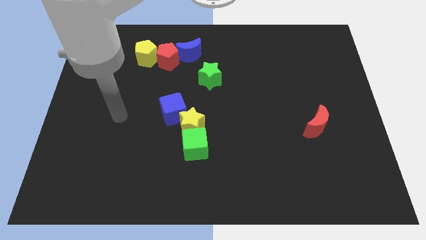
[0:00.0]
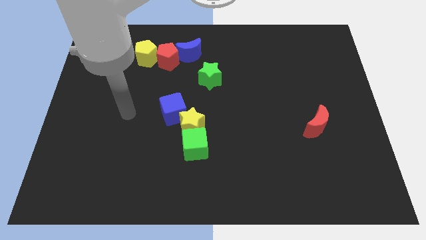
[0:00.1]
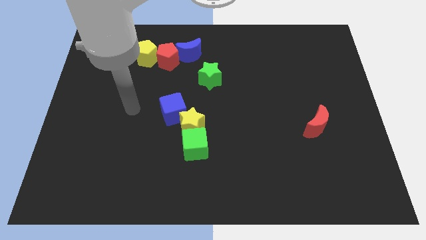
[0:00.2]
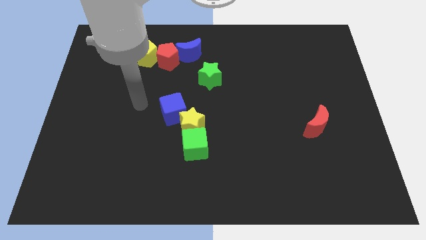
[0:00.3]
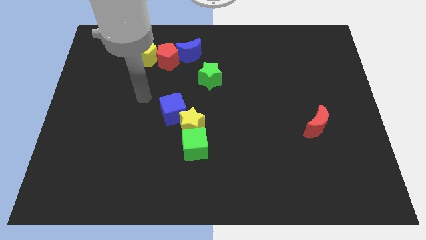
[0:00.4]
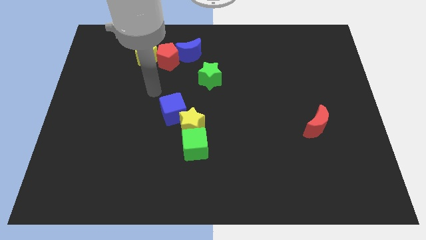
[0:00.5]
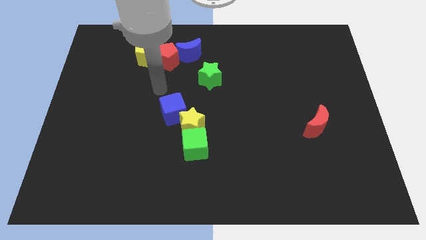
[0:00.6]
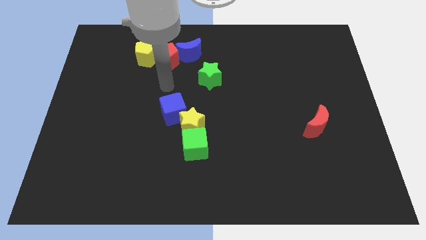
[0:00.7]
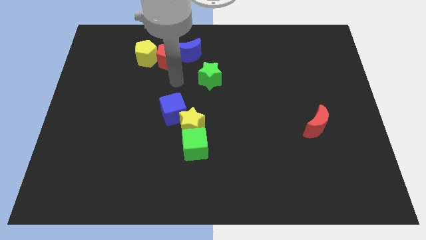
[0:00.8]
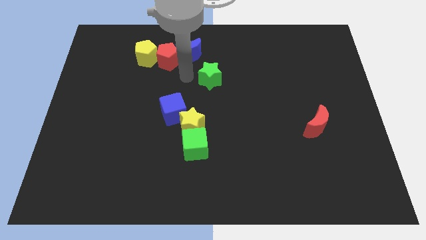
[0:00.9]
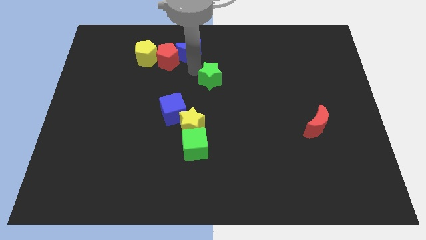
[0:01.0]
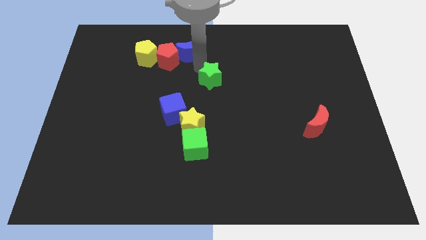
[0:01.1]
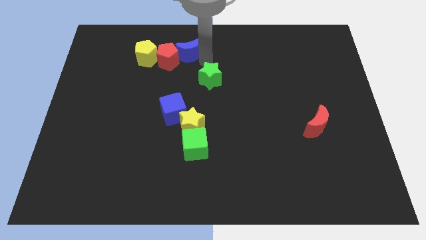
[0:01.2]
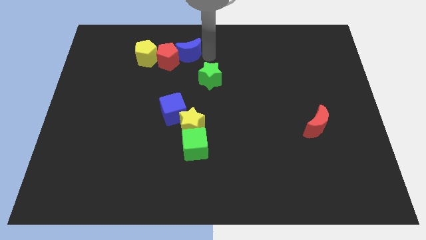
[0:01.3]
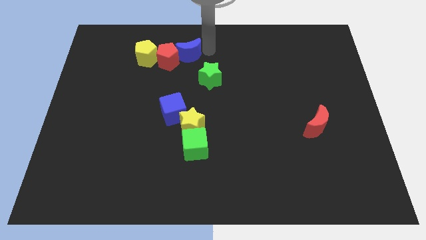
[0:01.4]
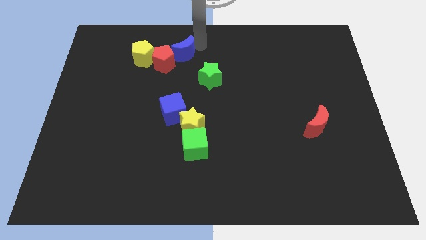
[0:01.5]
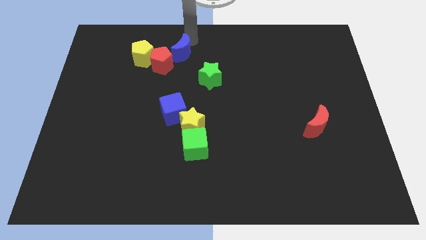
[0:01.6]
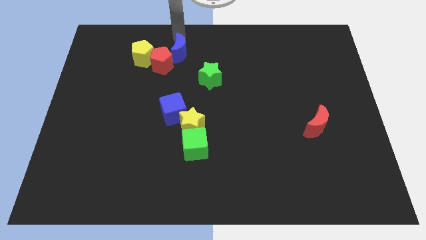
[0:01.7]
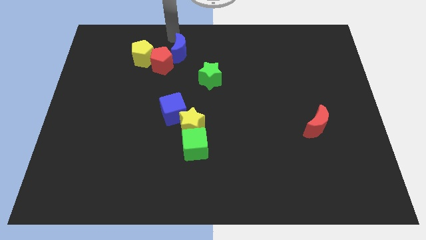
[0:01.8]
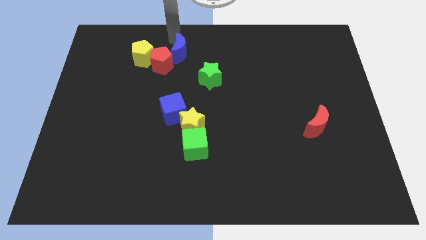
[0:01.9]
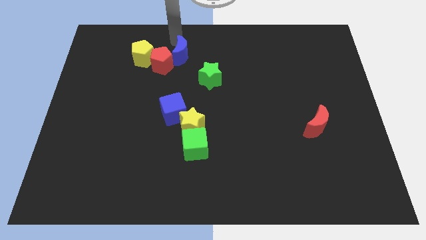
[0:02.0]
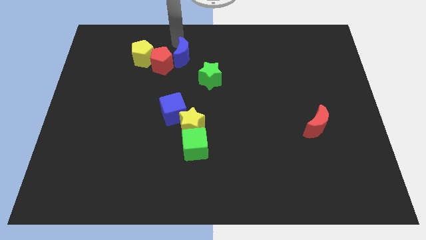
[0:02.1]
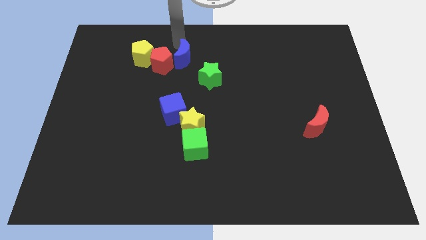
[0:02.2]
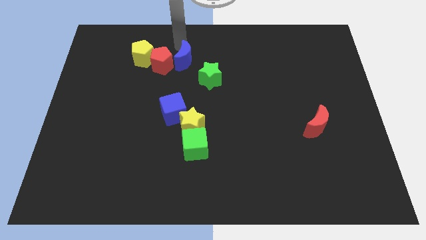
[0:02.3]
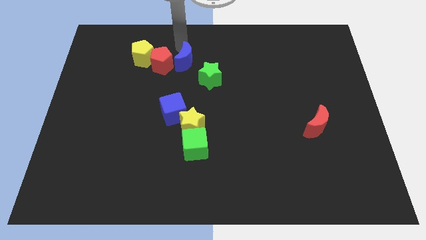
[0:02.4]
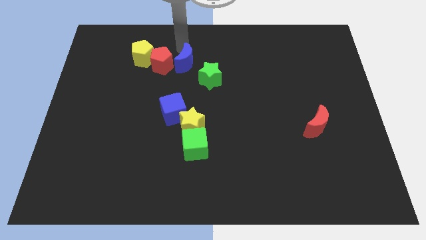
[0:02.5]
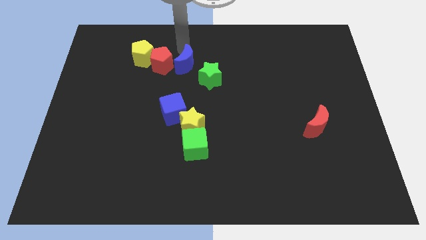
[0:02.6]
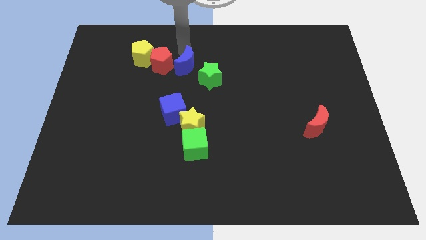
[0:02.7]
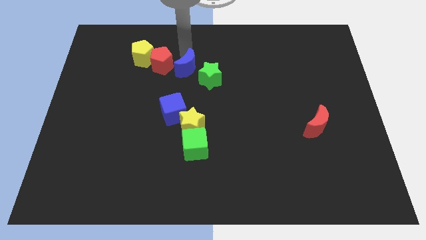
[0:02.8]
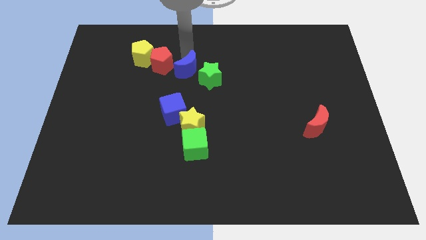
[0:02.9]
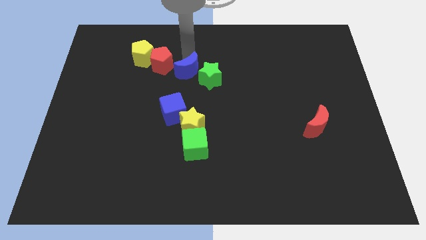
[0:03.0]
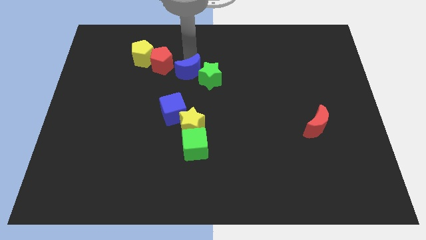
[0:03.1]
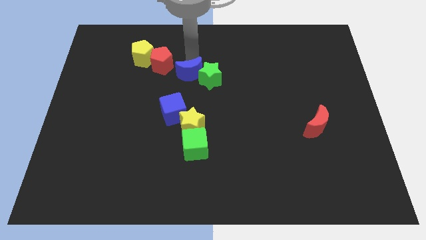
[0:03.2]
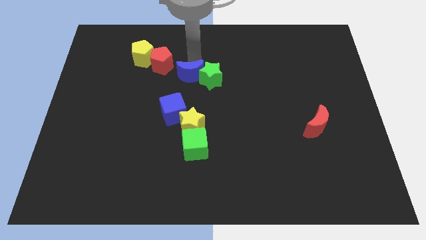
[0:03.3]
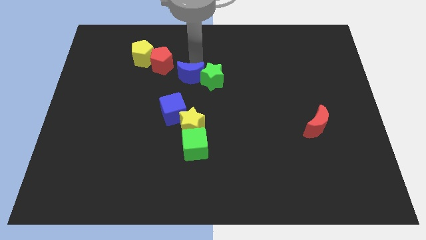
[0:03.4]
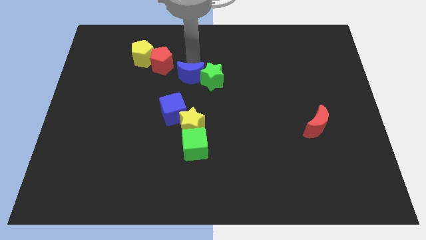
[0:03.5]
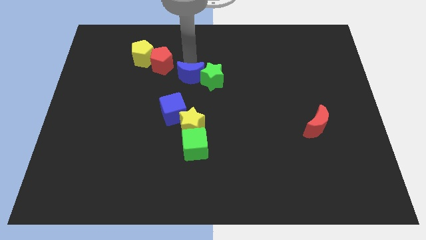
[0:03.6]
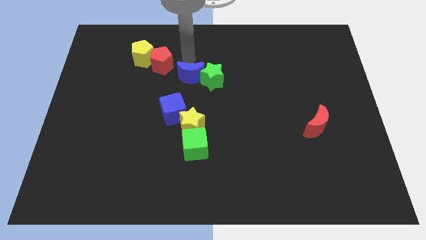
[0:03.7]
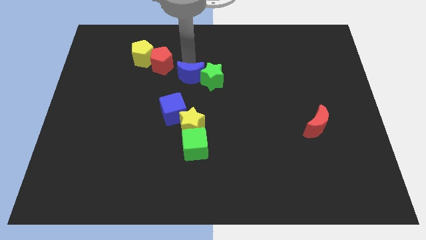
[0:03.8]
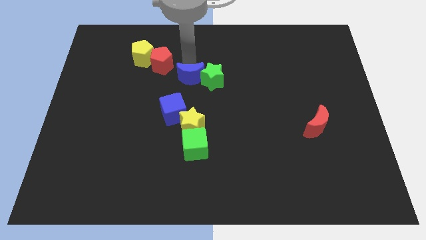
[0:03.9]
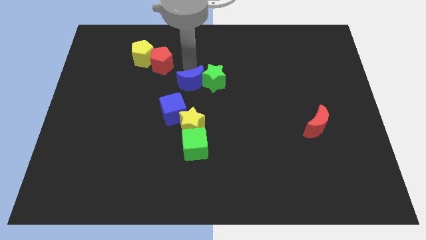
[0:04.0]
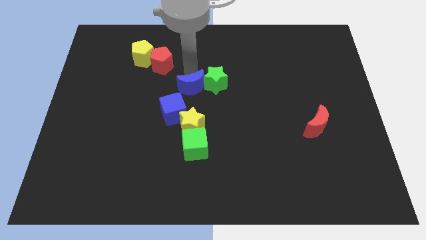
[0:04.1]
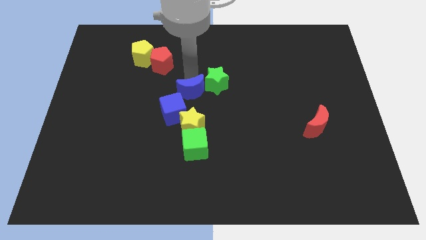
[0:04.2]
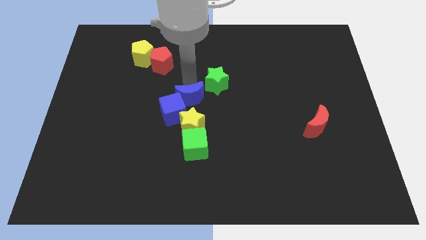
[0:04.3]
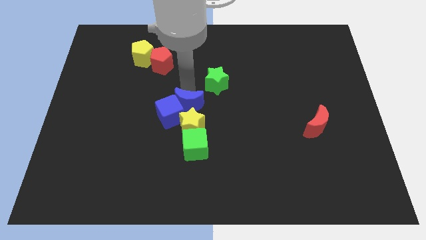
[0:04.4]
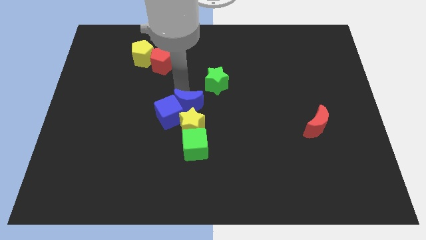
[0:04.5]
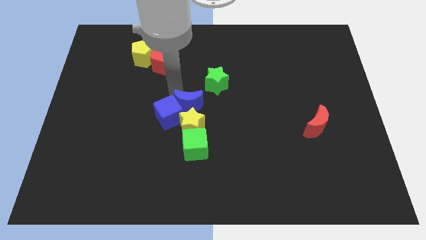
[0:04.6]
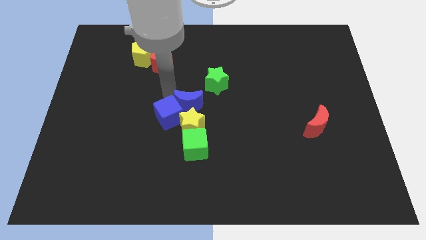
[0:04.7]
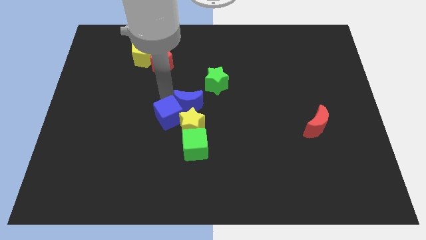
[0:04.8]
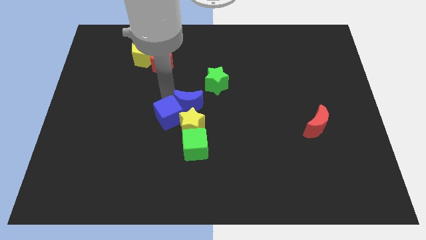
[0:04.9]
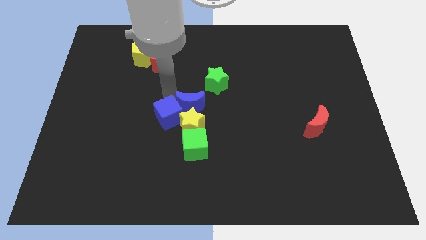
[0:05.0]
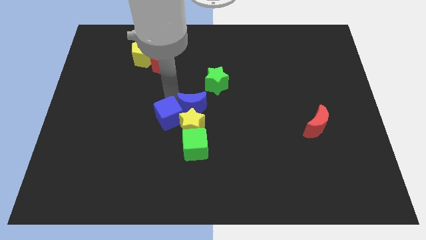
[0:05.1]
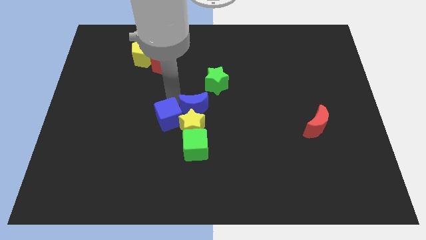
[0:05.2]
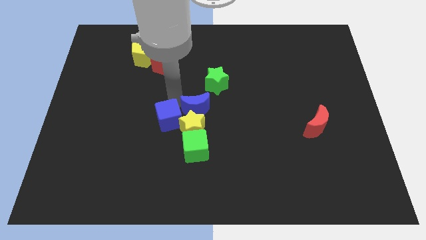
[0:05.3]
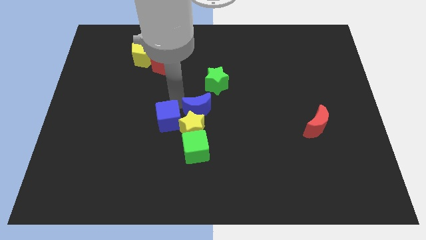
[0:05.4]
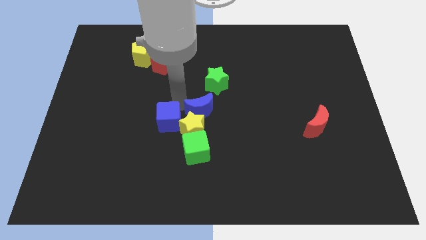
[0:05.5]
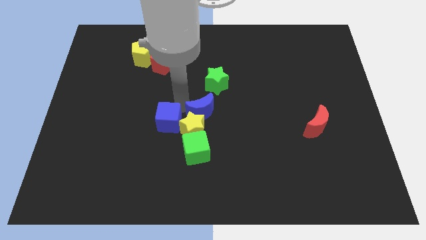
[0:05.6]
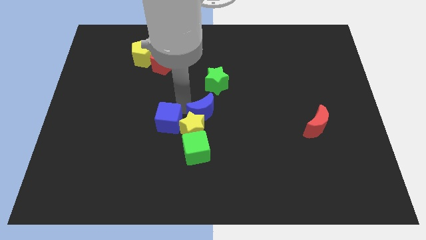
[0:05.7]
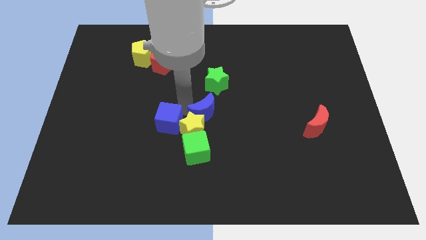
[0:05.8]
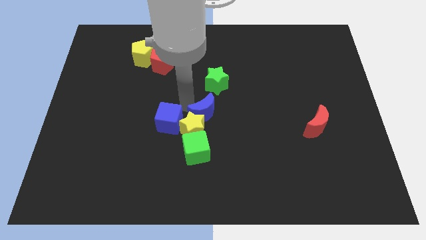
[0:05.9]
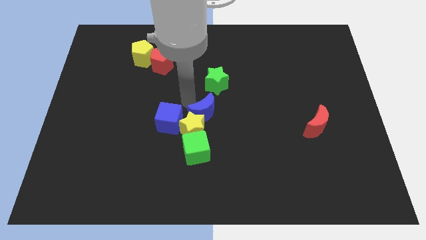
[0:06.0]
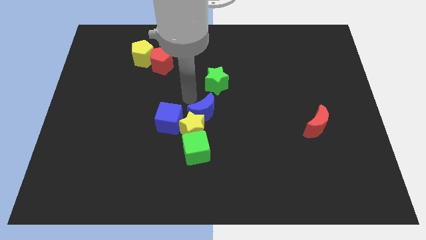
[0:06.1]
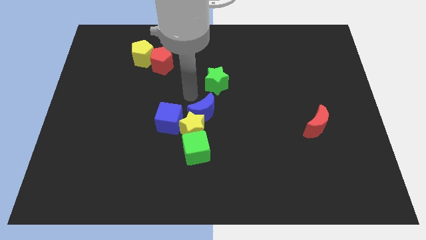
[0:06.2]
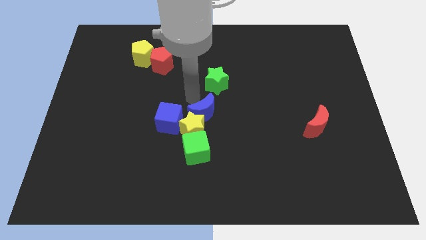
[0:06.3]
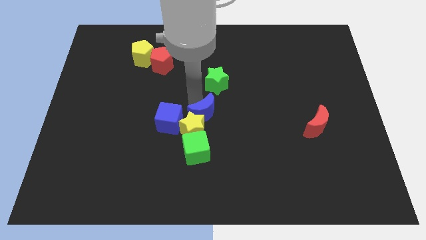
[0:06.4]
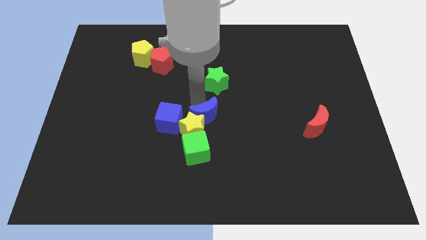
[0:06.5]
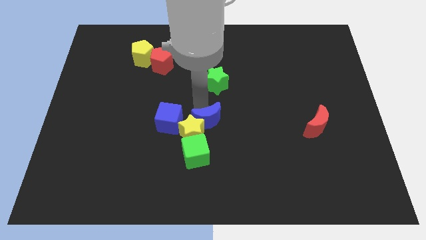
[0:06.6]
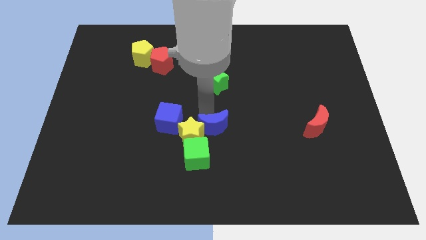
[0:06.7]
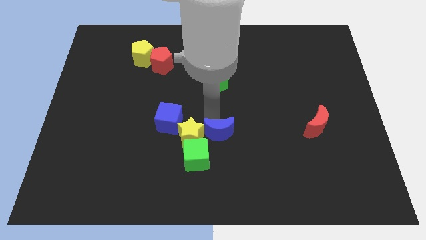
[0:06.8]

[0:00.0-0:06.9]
put the blue moon to the bottom right of the yellow star
